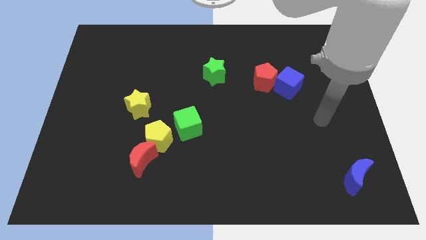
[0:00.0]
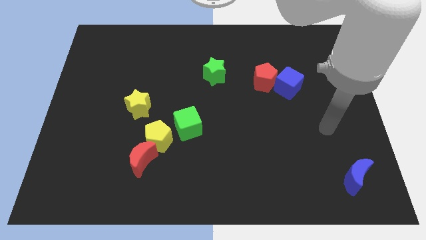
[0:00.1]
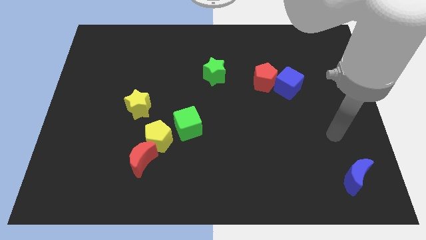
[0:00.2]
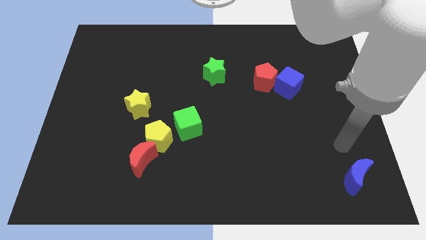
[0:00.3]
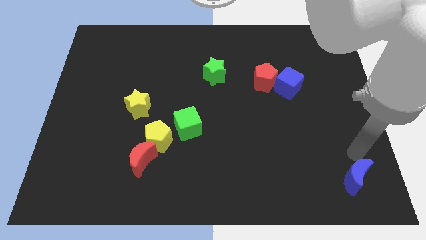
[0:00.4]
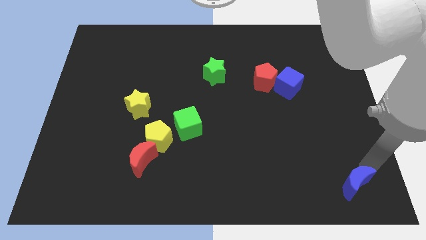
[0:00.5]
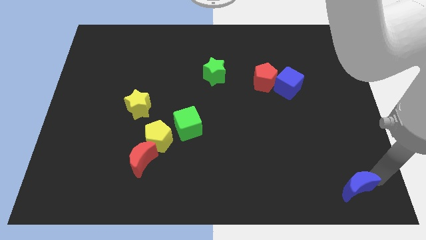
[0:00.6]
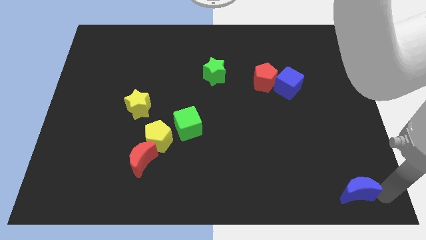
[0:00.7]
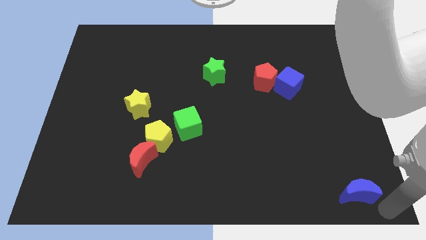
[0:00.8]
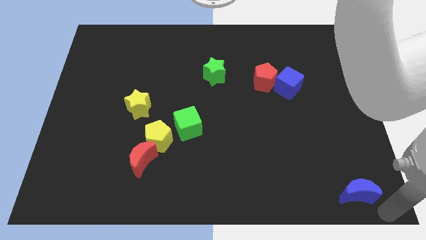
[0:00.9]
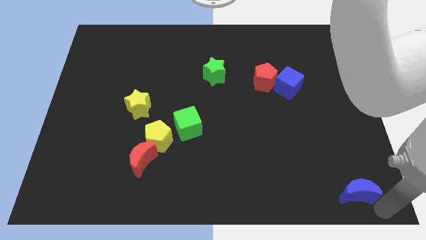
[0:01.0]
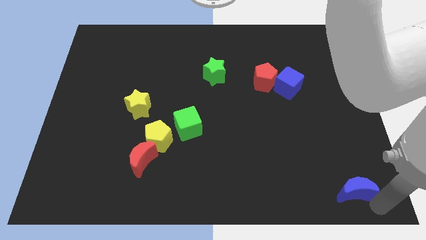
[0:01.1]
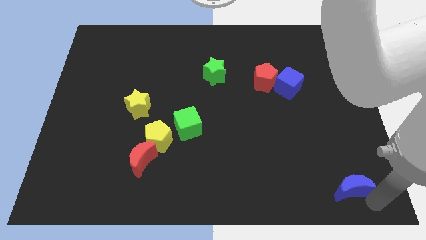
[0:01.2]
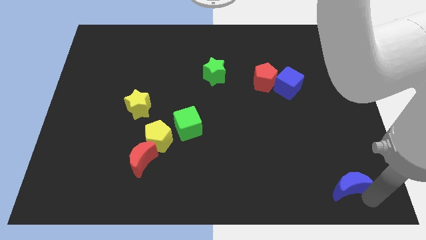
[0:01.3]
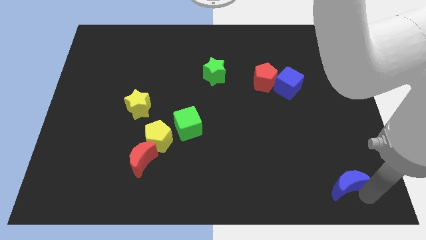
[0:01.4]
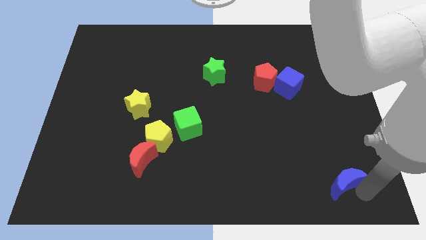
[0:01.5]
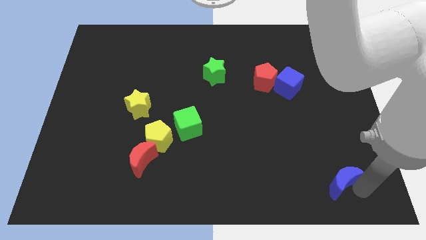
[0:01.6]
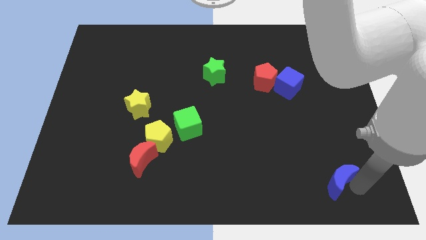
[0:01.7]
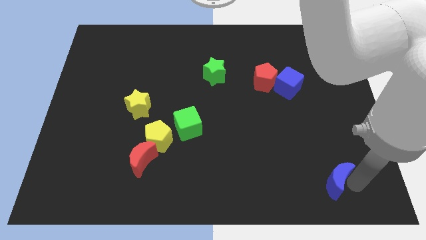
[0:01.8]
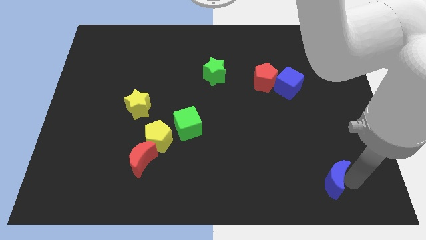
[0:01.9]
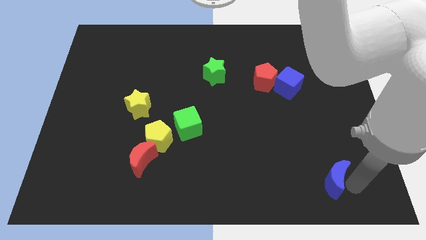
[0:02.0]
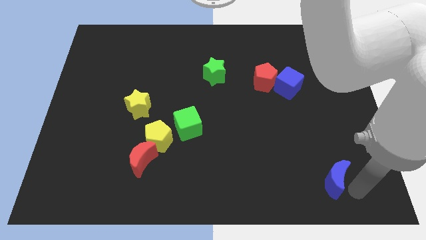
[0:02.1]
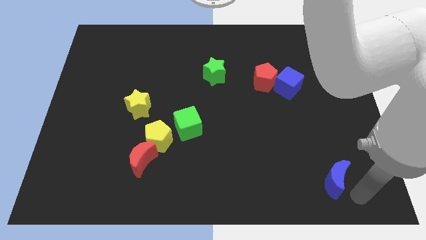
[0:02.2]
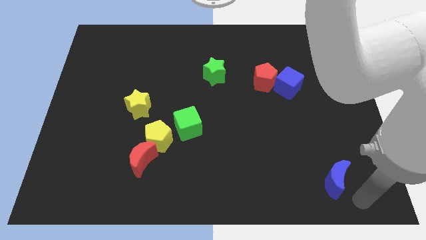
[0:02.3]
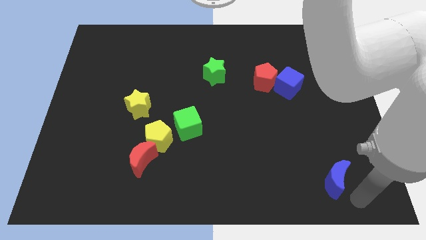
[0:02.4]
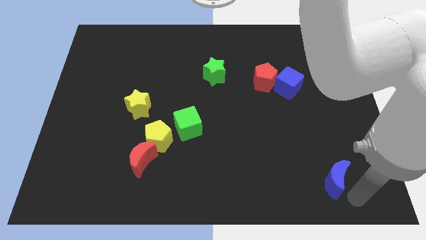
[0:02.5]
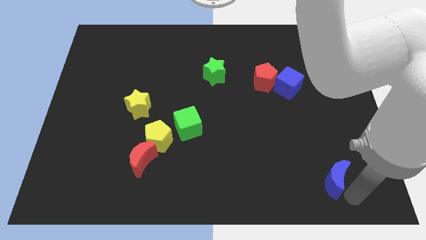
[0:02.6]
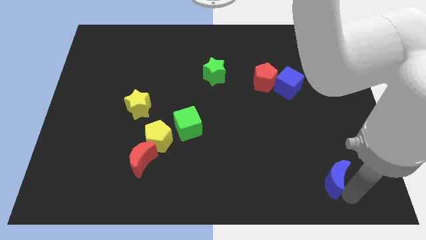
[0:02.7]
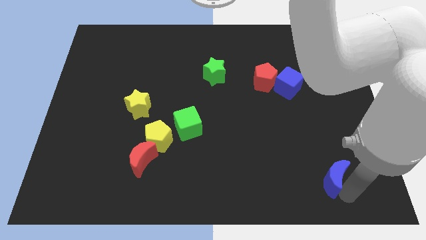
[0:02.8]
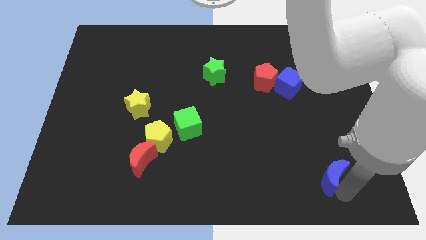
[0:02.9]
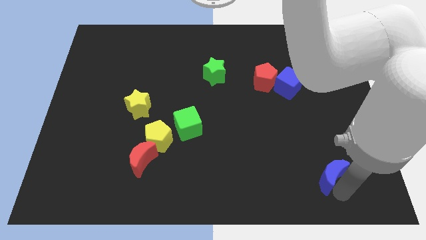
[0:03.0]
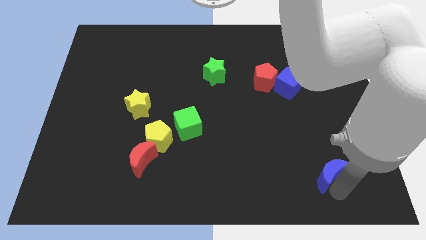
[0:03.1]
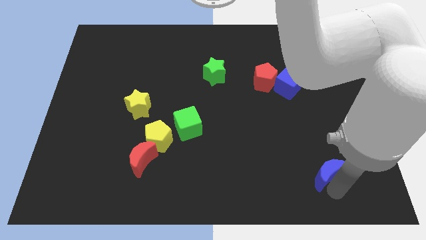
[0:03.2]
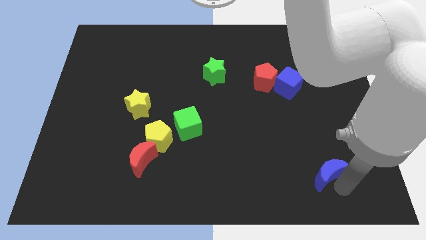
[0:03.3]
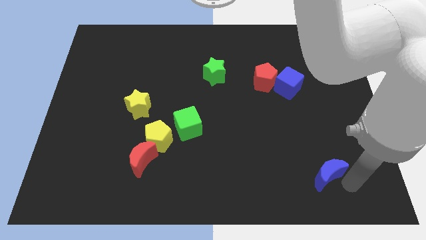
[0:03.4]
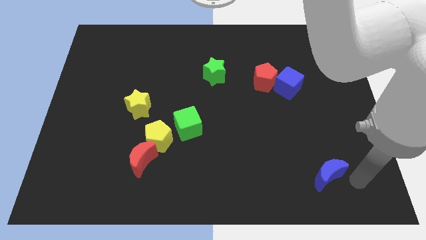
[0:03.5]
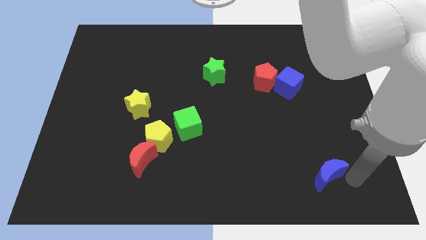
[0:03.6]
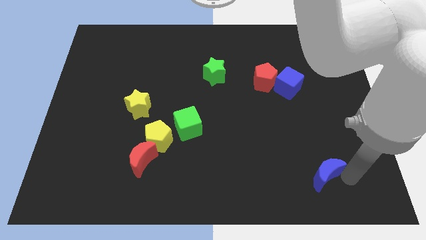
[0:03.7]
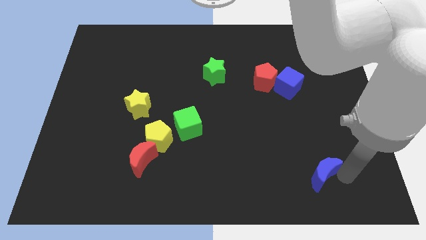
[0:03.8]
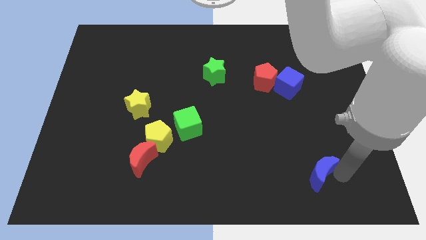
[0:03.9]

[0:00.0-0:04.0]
slightly slide the blue moon left

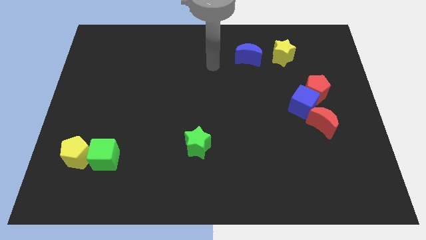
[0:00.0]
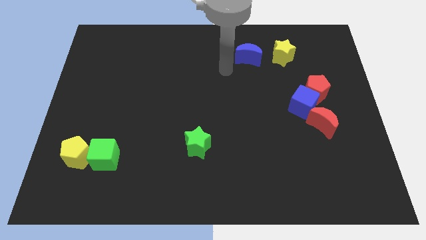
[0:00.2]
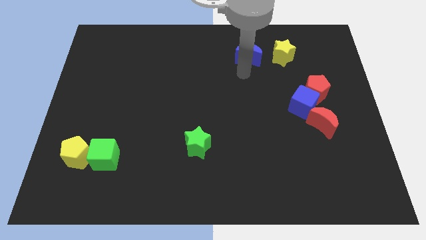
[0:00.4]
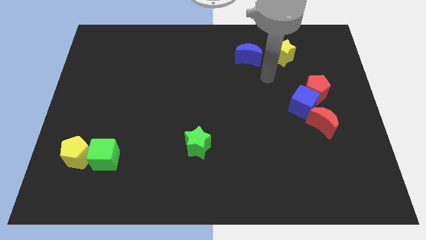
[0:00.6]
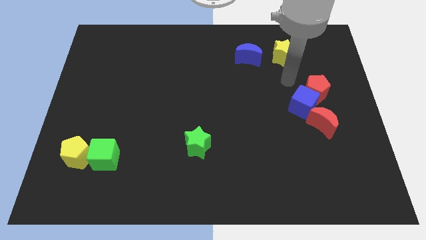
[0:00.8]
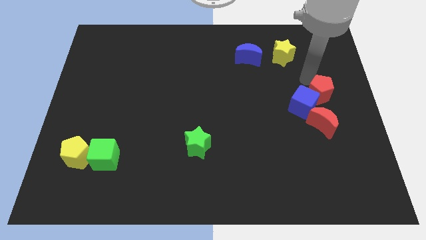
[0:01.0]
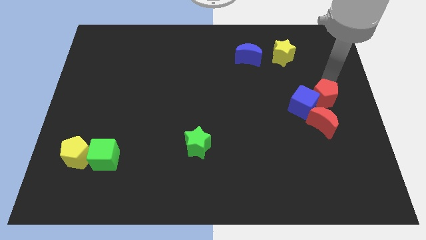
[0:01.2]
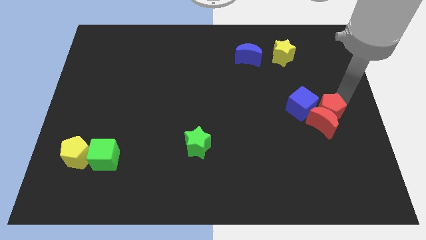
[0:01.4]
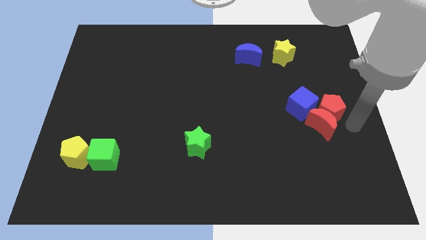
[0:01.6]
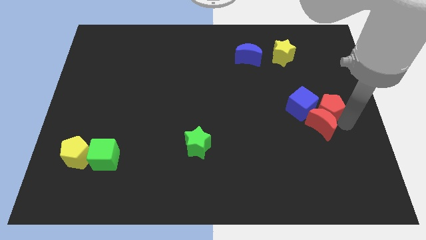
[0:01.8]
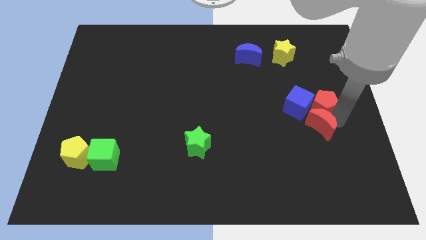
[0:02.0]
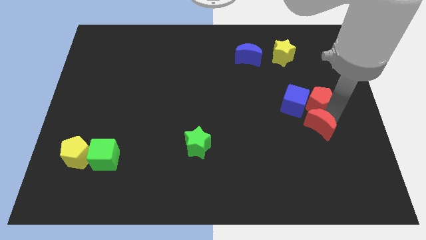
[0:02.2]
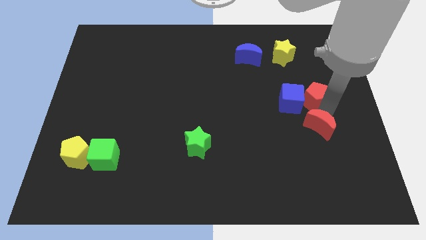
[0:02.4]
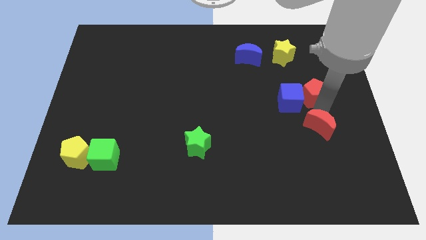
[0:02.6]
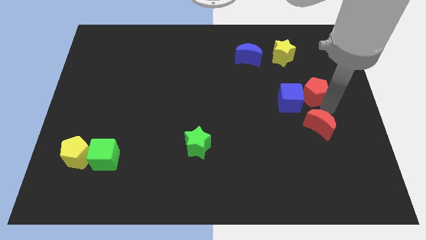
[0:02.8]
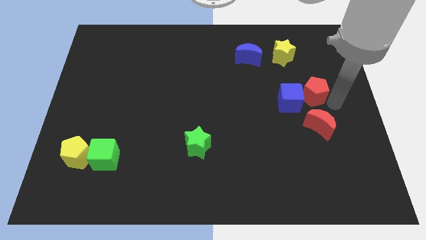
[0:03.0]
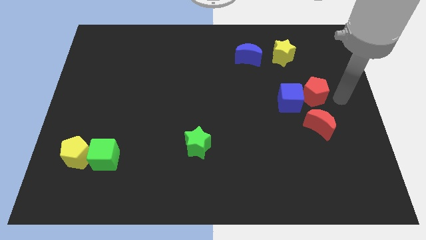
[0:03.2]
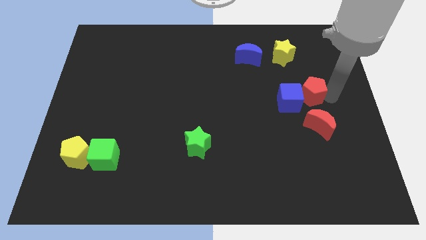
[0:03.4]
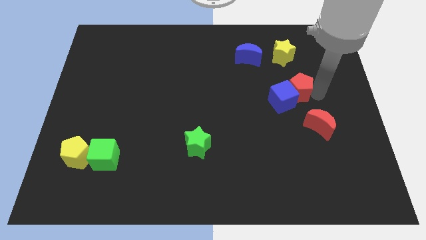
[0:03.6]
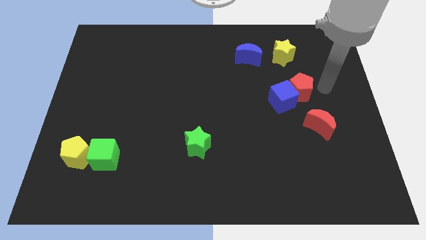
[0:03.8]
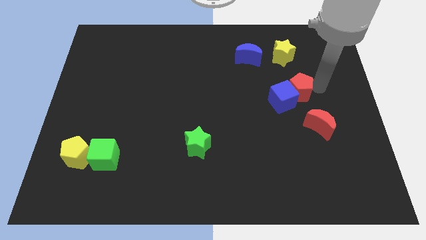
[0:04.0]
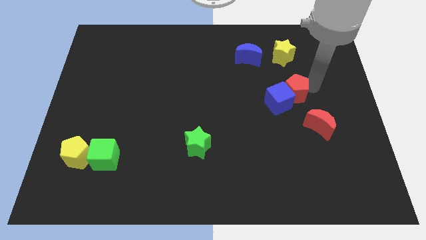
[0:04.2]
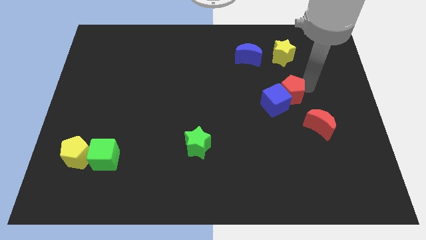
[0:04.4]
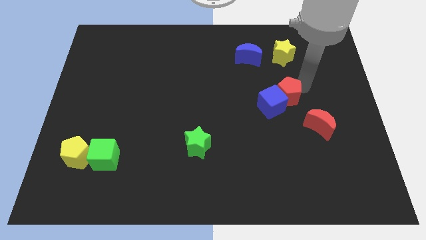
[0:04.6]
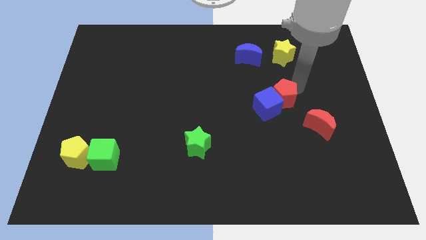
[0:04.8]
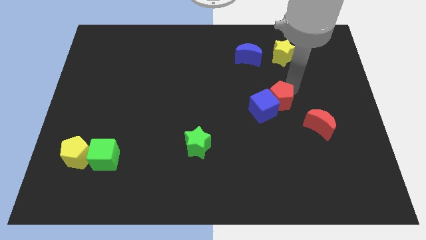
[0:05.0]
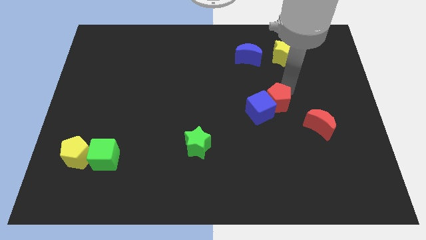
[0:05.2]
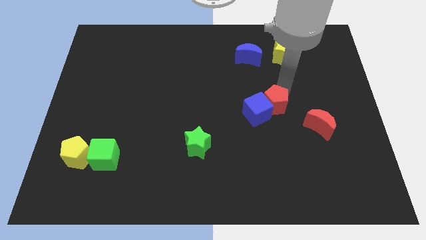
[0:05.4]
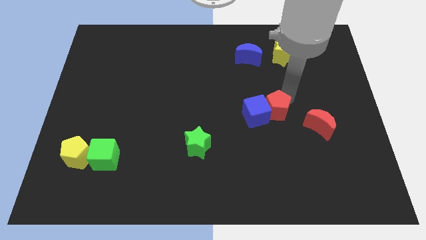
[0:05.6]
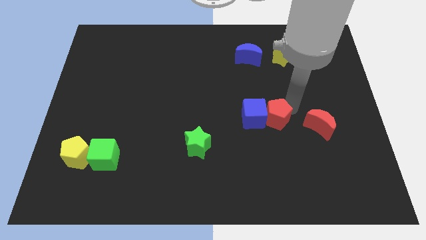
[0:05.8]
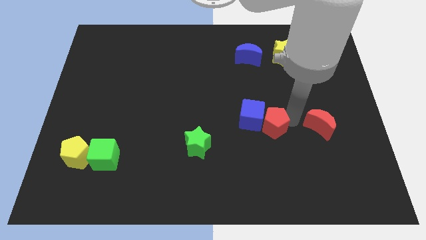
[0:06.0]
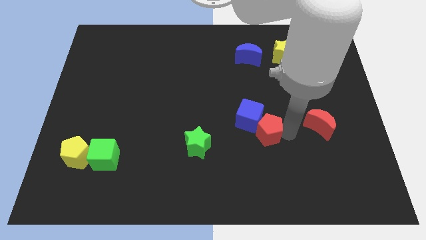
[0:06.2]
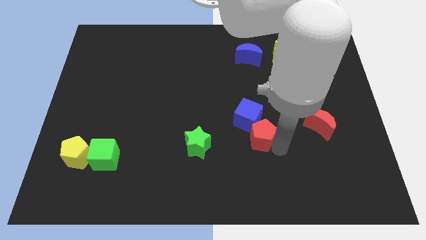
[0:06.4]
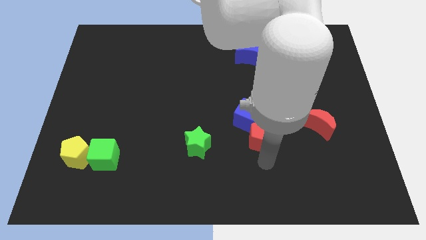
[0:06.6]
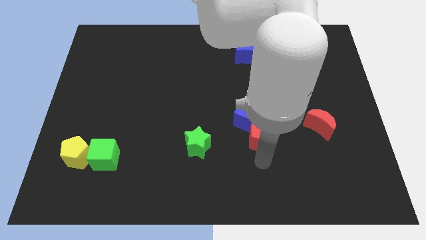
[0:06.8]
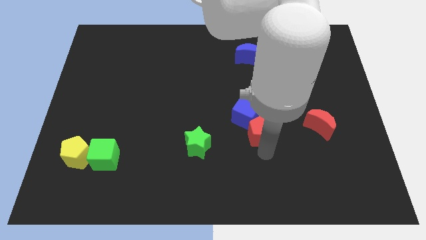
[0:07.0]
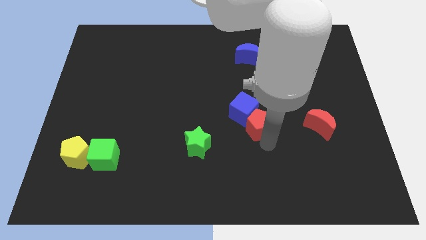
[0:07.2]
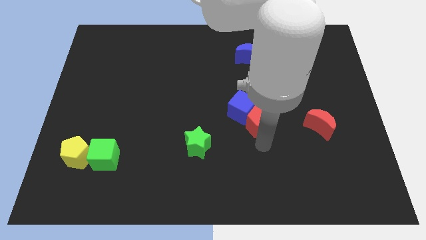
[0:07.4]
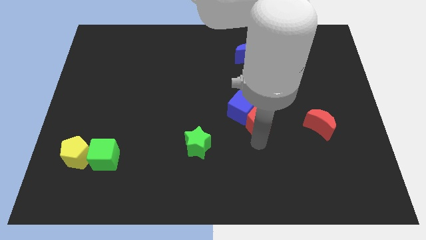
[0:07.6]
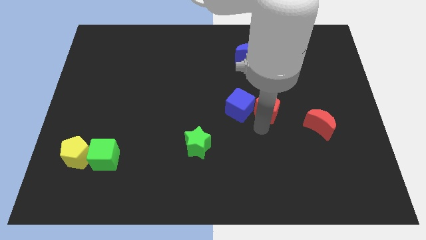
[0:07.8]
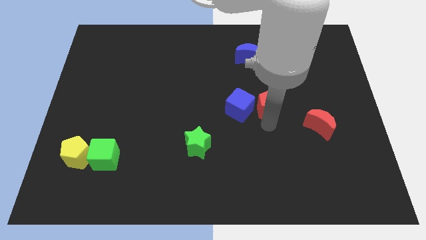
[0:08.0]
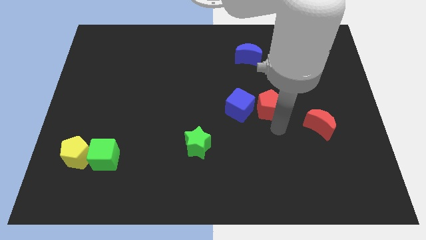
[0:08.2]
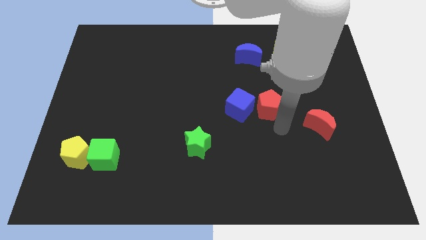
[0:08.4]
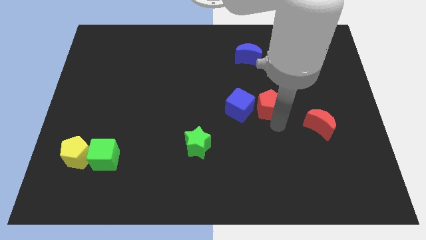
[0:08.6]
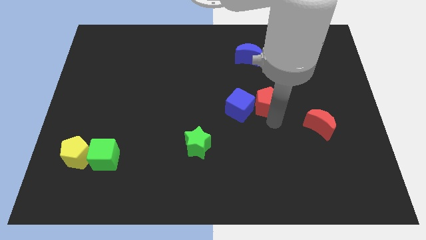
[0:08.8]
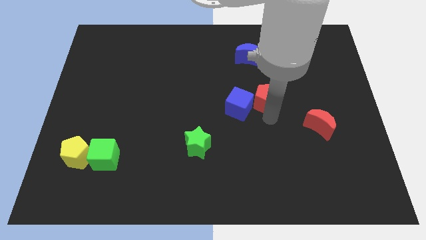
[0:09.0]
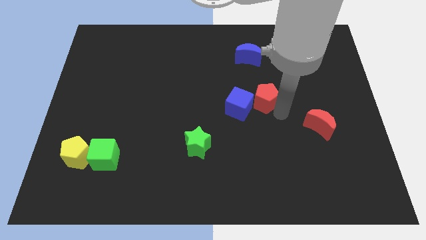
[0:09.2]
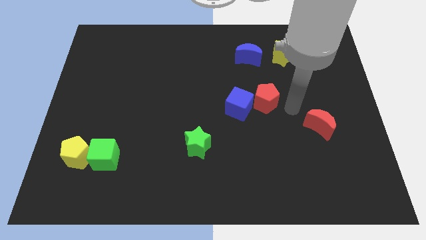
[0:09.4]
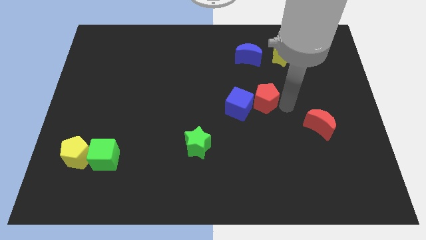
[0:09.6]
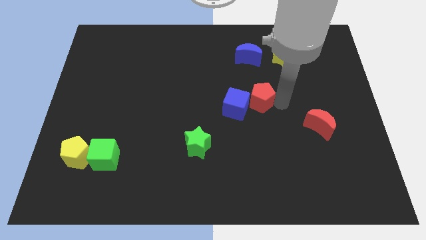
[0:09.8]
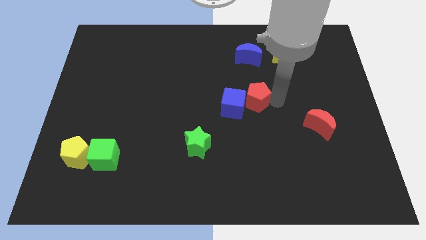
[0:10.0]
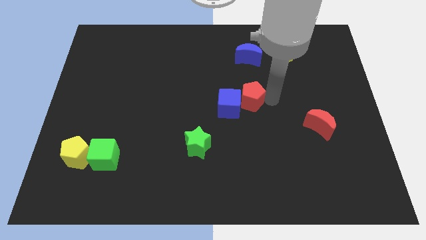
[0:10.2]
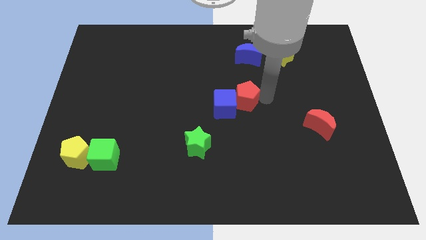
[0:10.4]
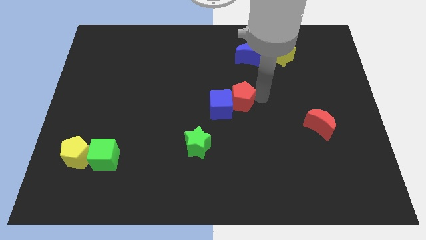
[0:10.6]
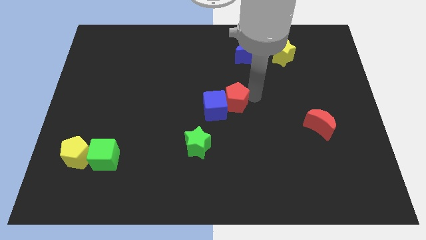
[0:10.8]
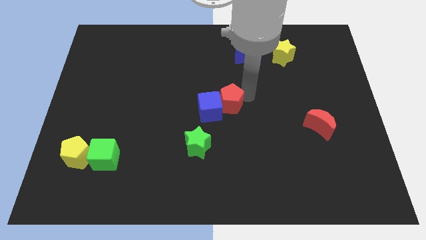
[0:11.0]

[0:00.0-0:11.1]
move the red pentagon to the left
